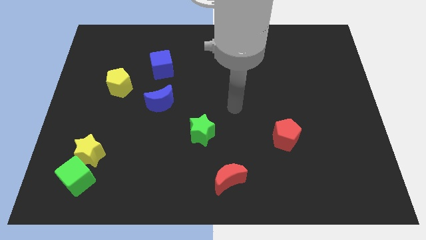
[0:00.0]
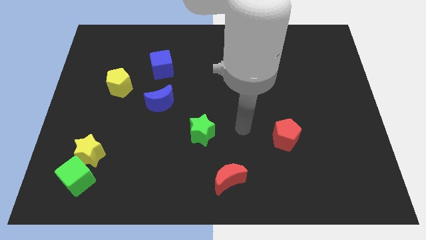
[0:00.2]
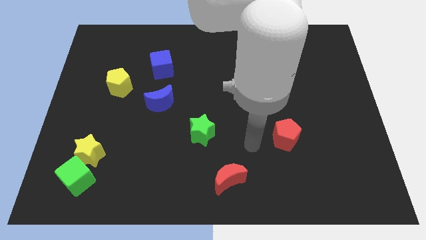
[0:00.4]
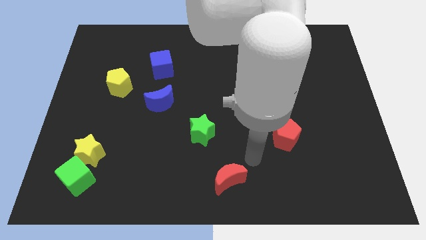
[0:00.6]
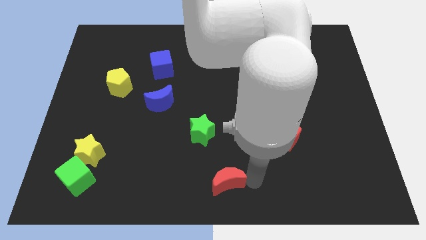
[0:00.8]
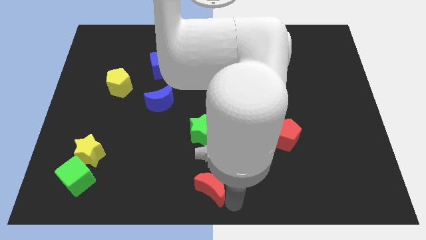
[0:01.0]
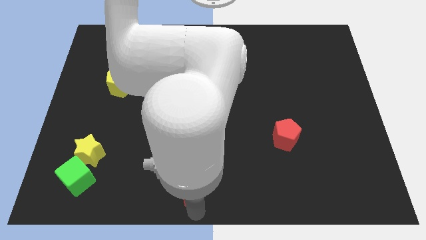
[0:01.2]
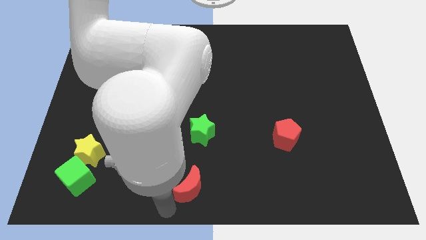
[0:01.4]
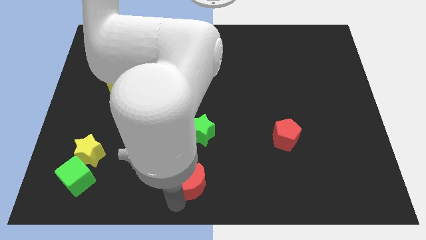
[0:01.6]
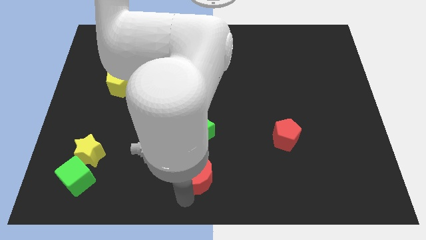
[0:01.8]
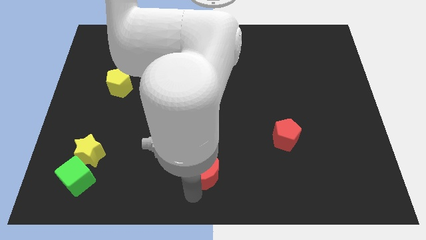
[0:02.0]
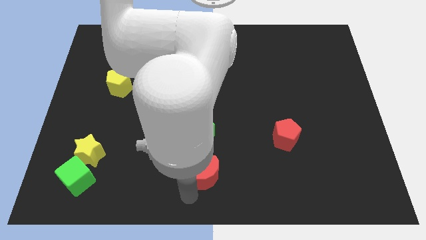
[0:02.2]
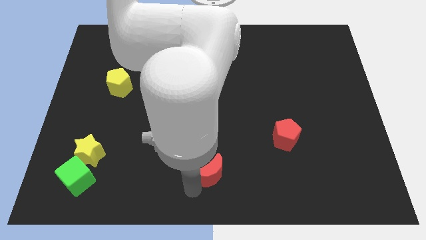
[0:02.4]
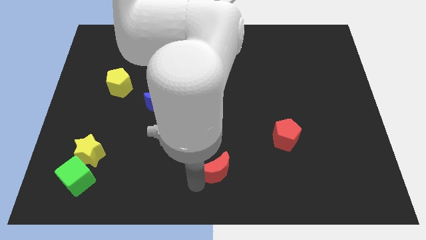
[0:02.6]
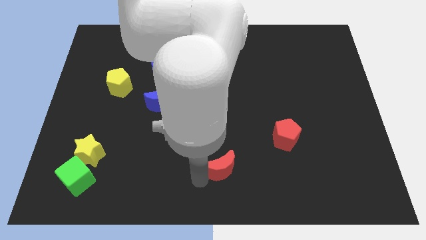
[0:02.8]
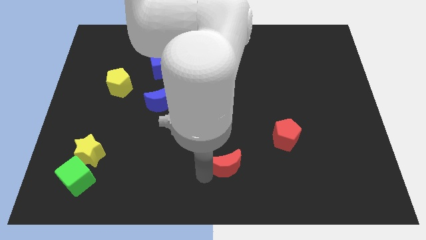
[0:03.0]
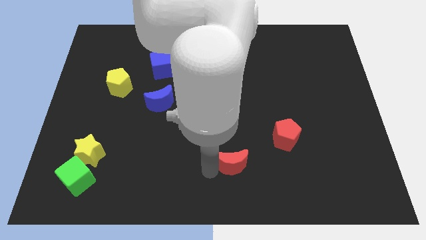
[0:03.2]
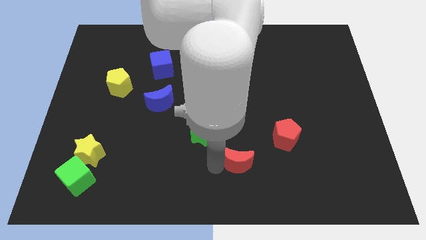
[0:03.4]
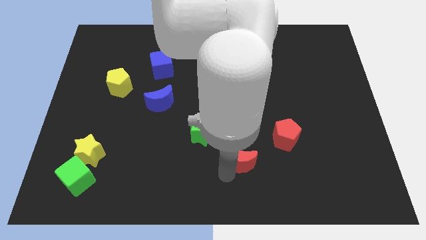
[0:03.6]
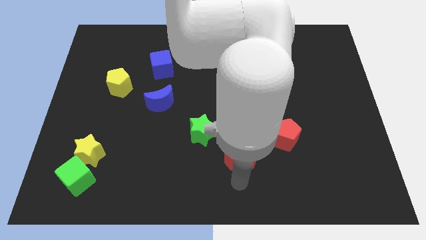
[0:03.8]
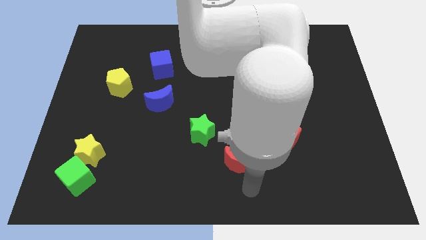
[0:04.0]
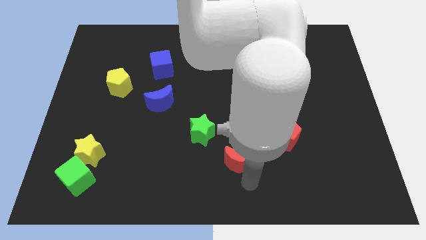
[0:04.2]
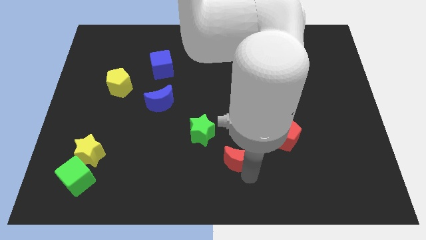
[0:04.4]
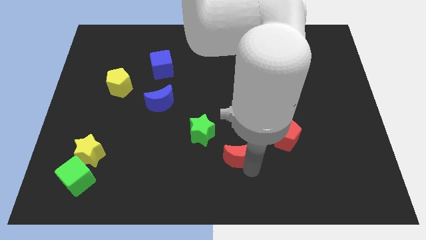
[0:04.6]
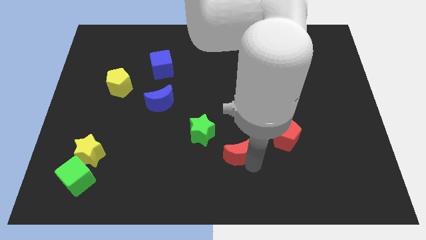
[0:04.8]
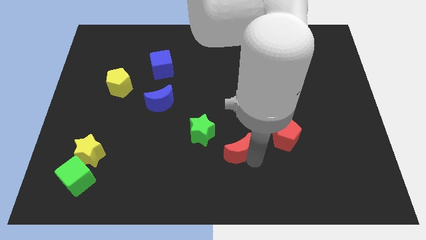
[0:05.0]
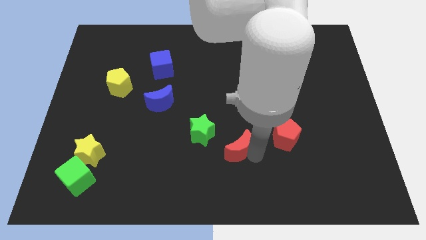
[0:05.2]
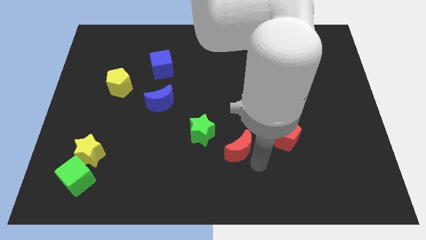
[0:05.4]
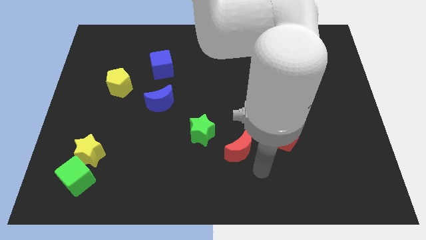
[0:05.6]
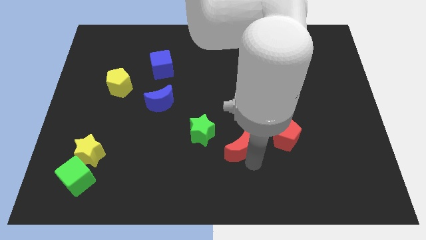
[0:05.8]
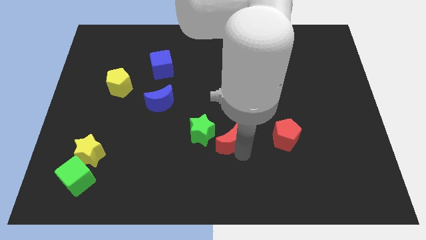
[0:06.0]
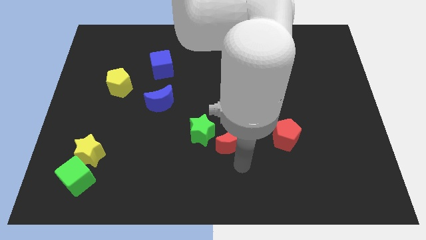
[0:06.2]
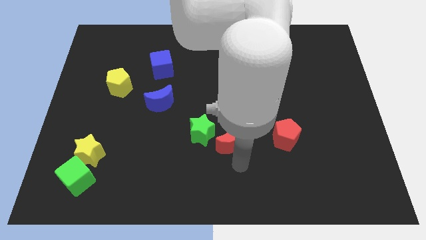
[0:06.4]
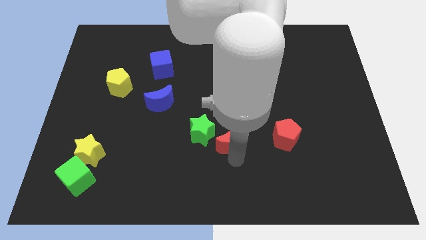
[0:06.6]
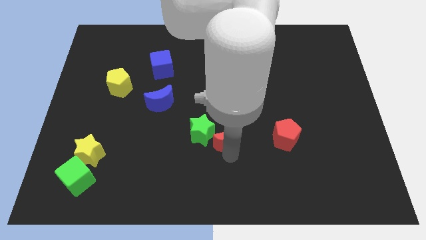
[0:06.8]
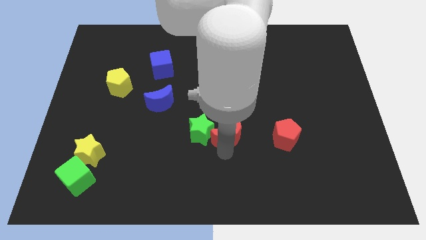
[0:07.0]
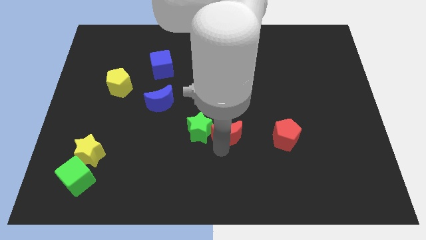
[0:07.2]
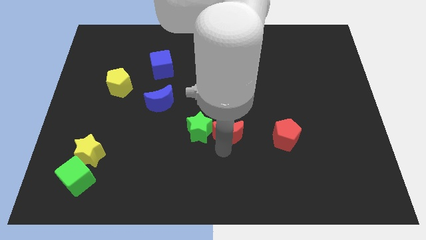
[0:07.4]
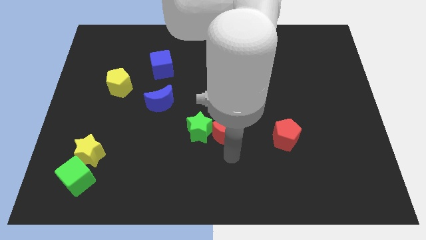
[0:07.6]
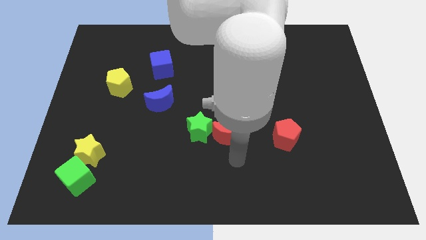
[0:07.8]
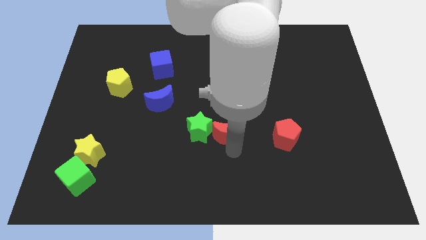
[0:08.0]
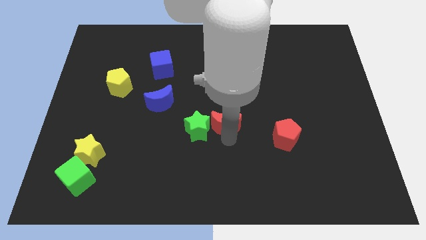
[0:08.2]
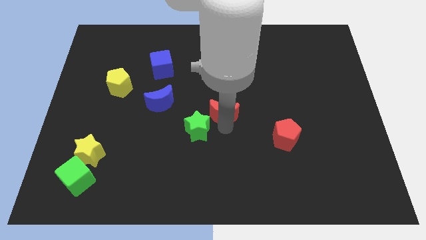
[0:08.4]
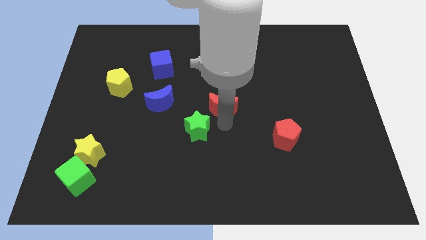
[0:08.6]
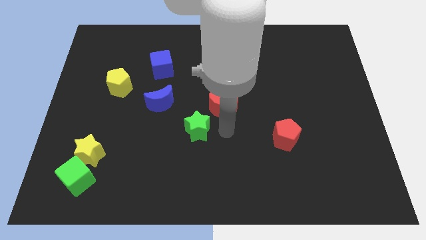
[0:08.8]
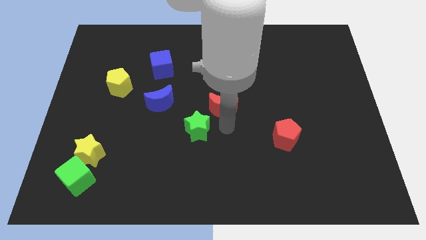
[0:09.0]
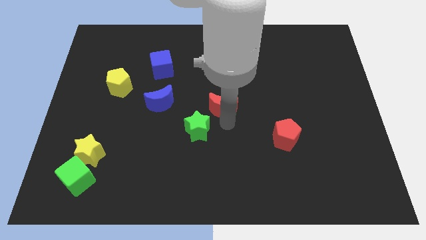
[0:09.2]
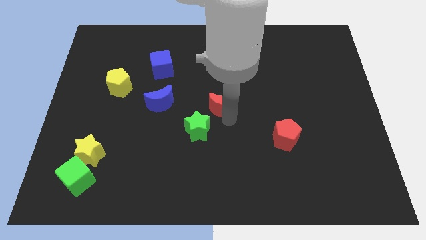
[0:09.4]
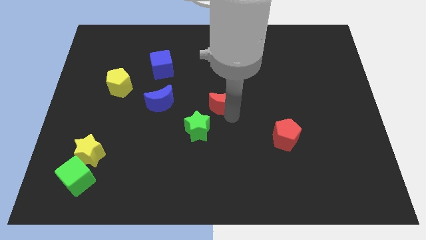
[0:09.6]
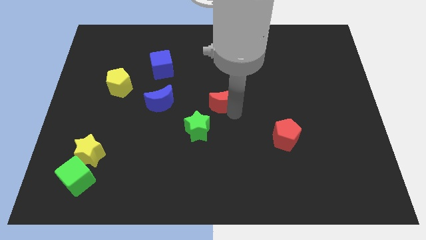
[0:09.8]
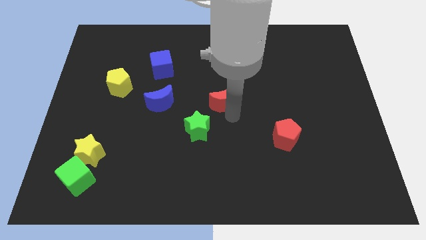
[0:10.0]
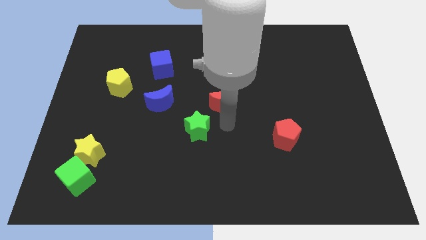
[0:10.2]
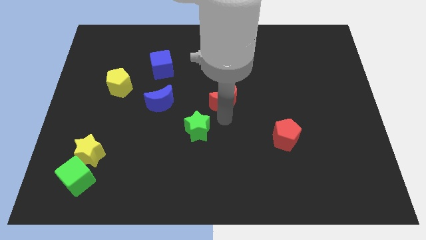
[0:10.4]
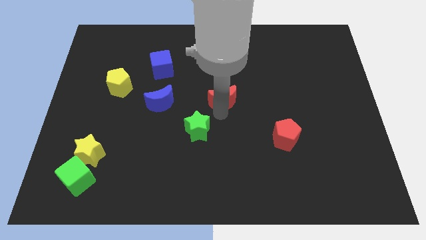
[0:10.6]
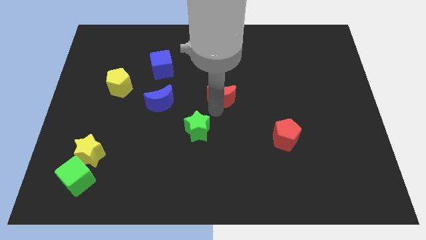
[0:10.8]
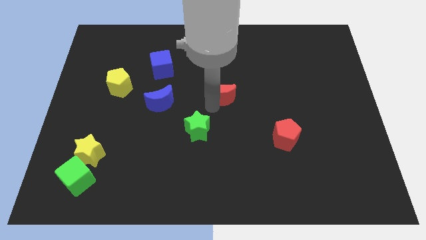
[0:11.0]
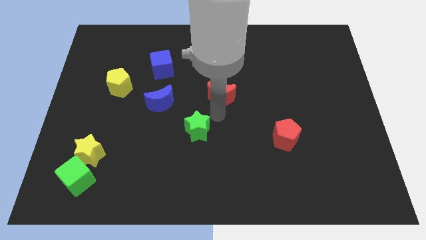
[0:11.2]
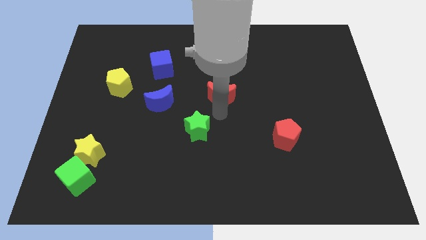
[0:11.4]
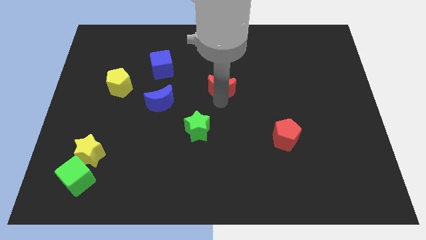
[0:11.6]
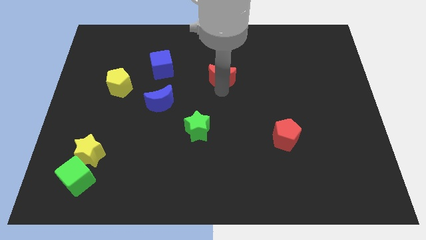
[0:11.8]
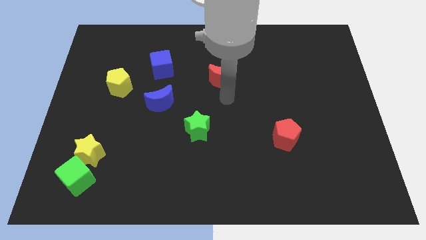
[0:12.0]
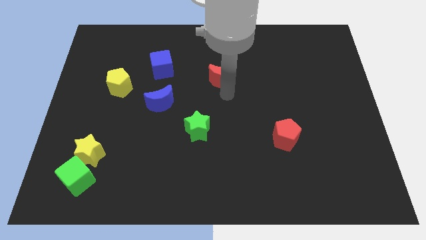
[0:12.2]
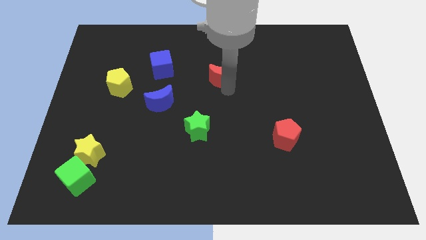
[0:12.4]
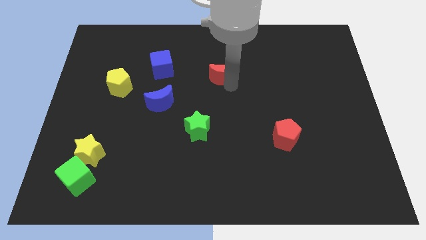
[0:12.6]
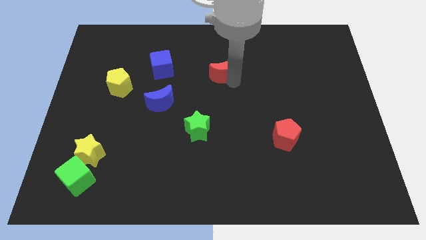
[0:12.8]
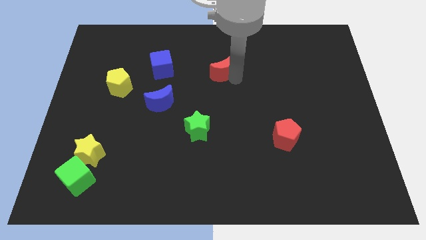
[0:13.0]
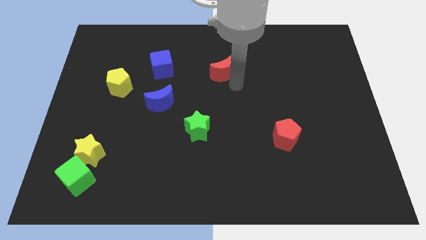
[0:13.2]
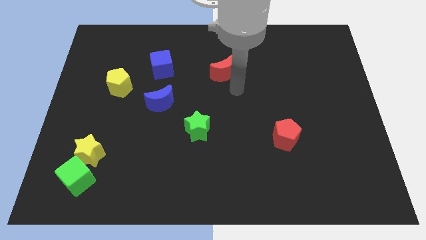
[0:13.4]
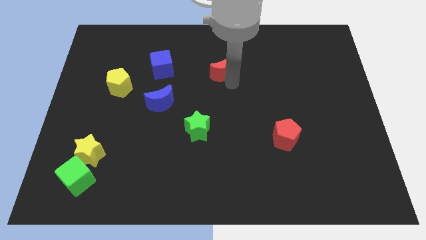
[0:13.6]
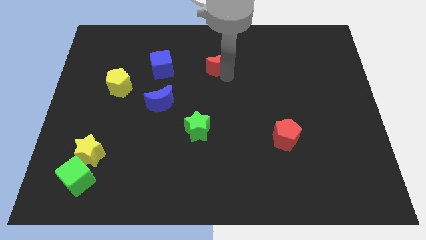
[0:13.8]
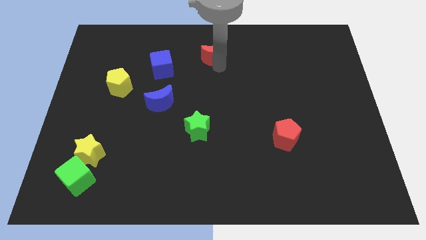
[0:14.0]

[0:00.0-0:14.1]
push the red moon to the top

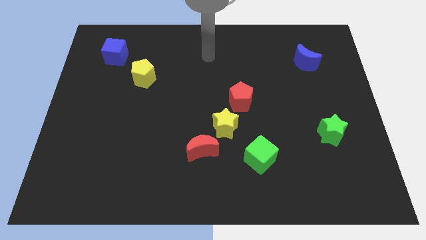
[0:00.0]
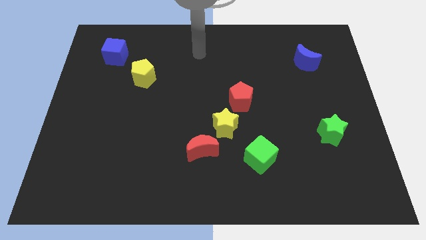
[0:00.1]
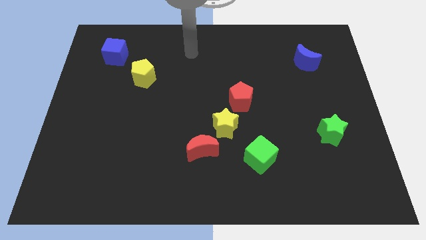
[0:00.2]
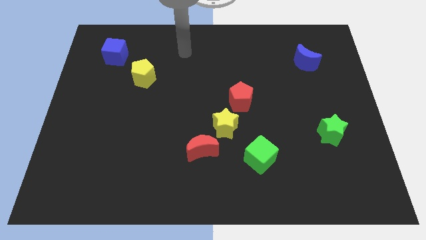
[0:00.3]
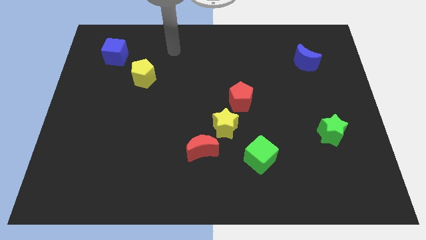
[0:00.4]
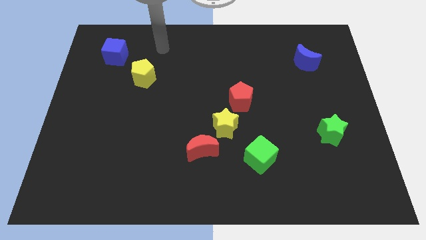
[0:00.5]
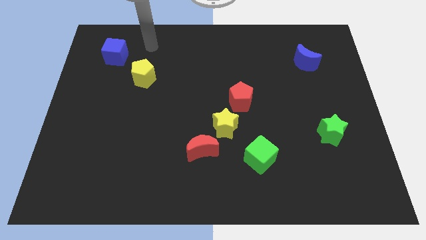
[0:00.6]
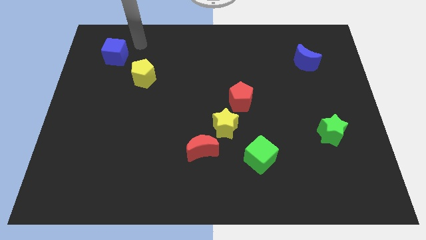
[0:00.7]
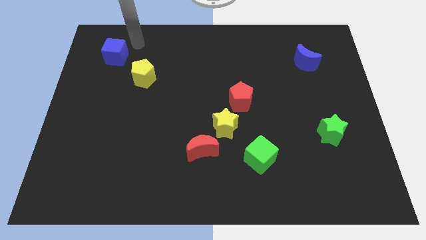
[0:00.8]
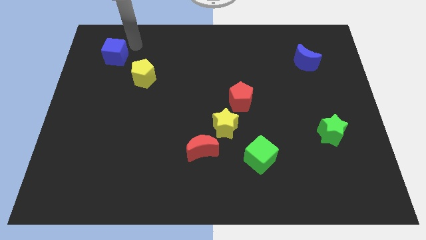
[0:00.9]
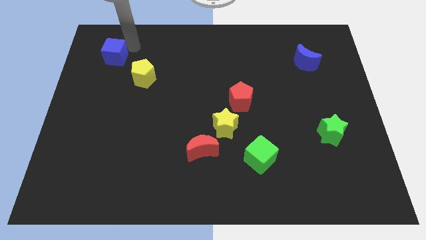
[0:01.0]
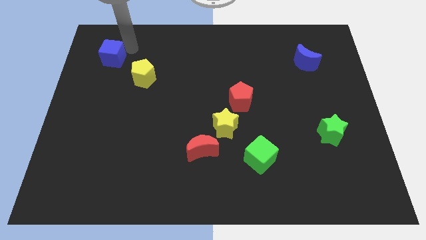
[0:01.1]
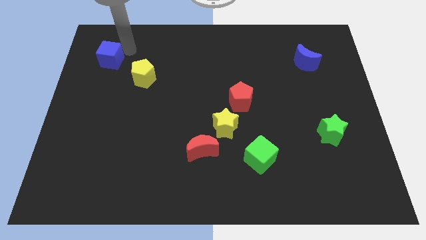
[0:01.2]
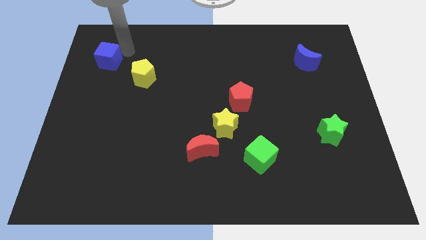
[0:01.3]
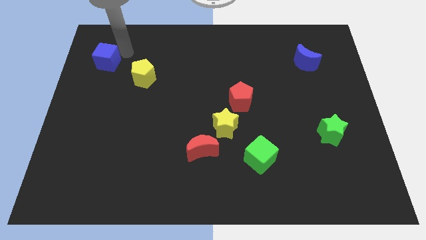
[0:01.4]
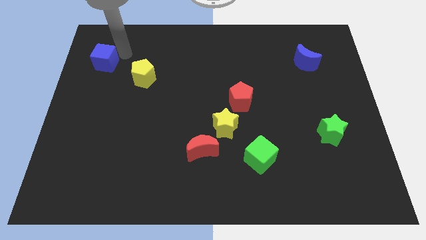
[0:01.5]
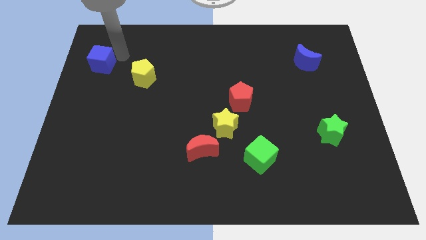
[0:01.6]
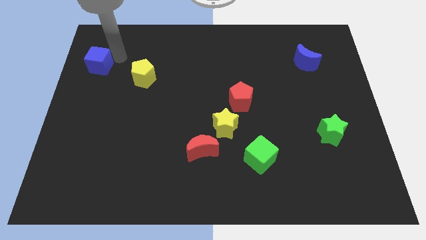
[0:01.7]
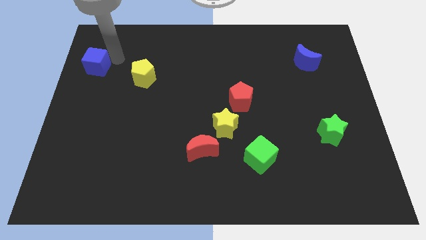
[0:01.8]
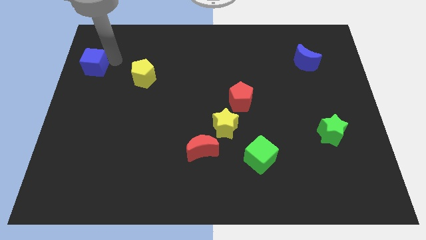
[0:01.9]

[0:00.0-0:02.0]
push the blue cube to the center left
